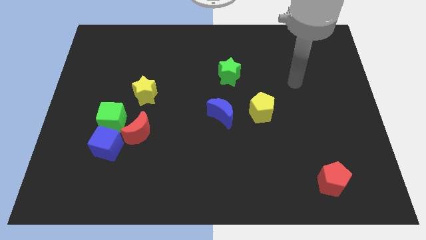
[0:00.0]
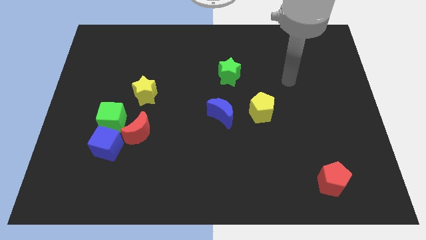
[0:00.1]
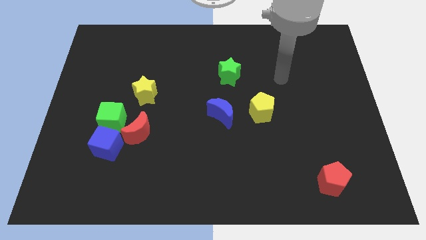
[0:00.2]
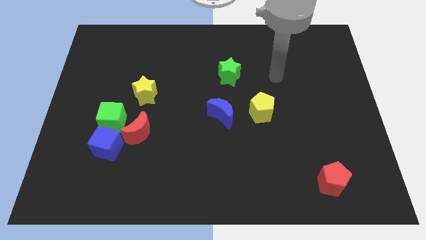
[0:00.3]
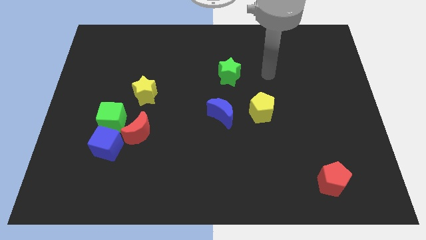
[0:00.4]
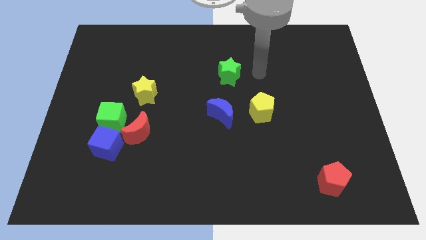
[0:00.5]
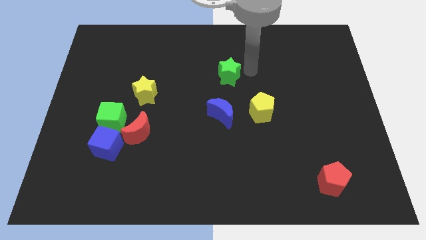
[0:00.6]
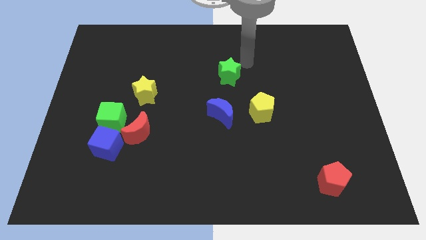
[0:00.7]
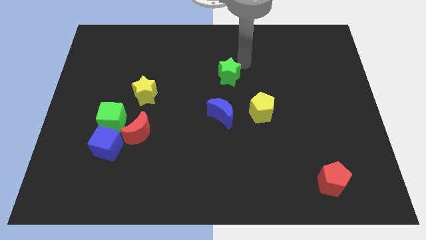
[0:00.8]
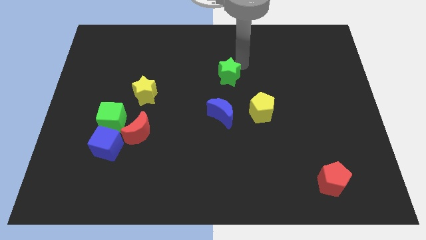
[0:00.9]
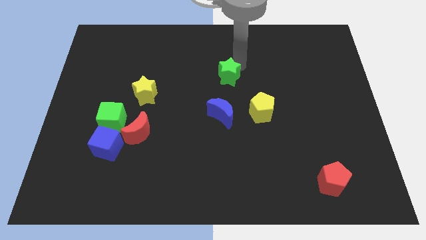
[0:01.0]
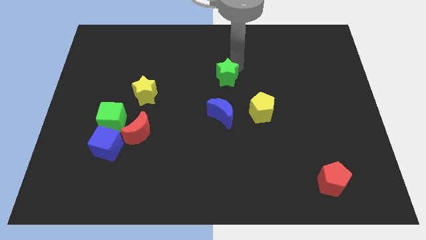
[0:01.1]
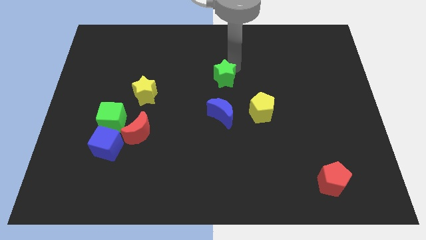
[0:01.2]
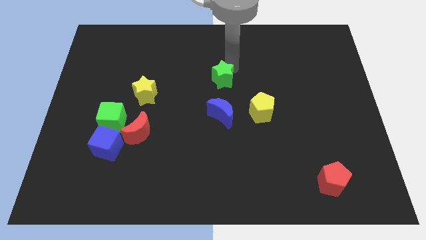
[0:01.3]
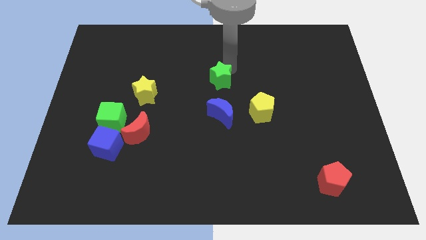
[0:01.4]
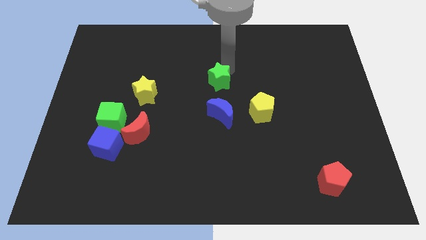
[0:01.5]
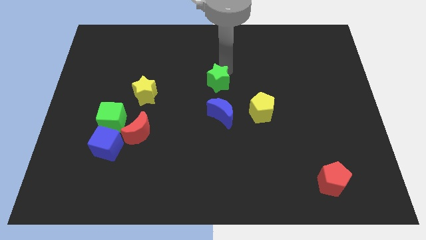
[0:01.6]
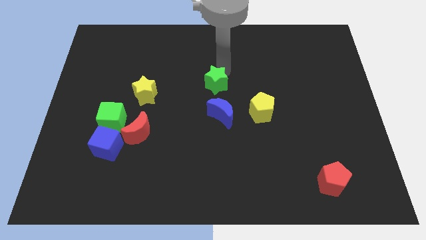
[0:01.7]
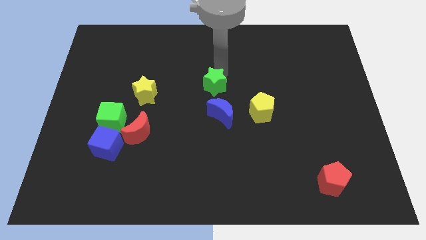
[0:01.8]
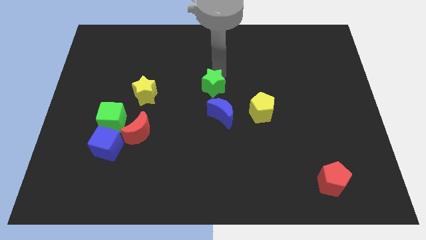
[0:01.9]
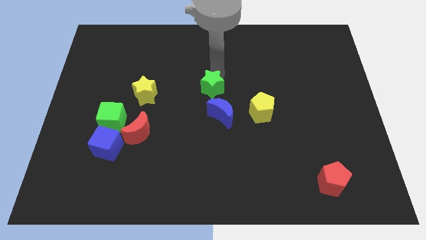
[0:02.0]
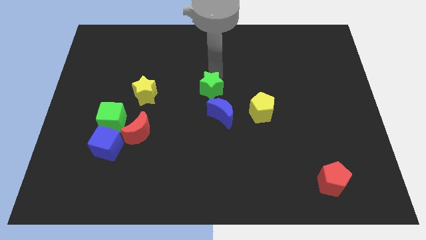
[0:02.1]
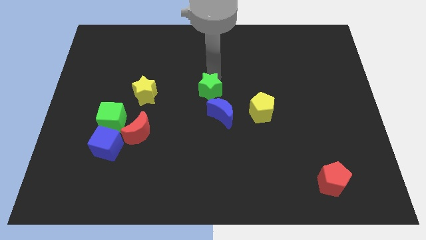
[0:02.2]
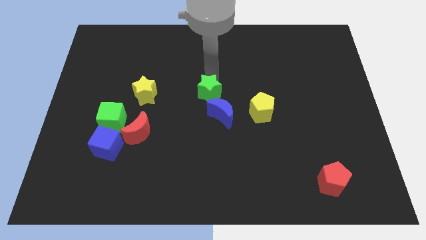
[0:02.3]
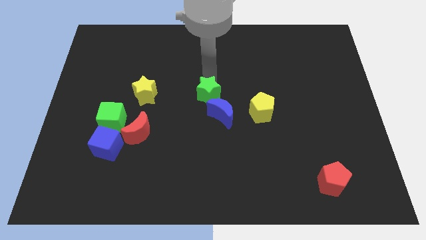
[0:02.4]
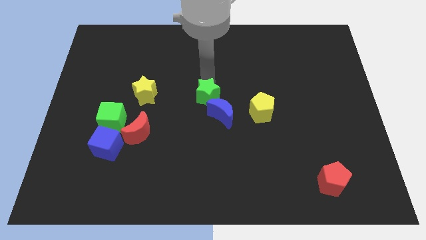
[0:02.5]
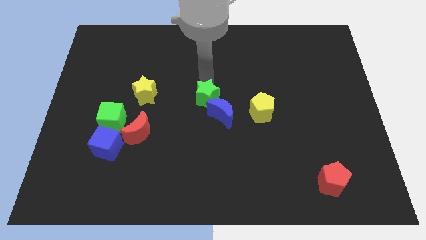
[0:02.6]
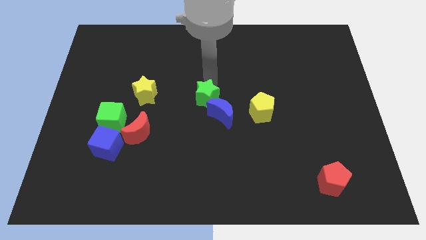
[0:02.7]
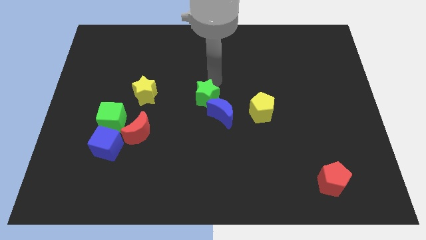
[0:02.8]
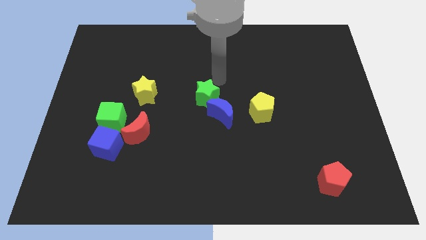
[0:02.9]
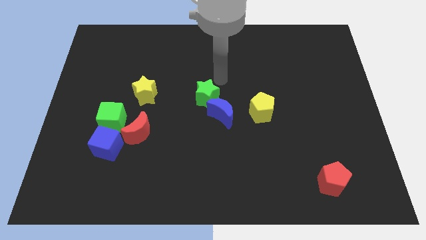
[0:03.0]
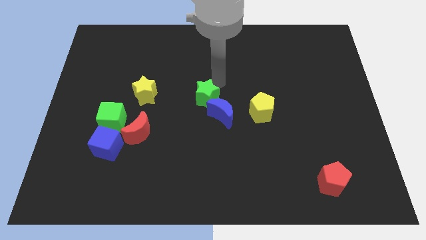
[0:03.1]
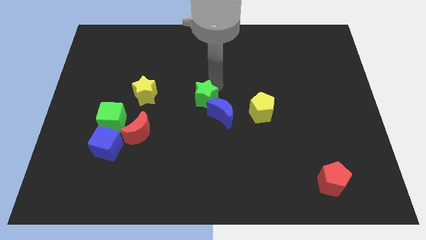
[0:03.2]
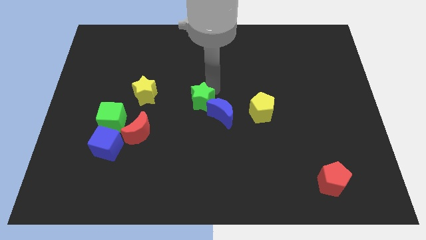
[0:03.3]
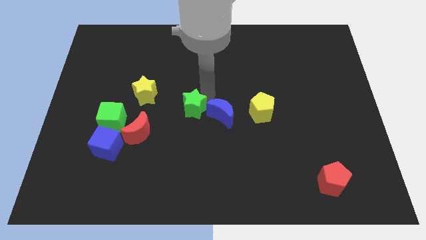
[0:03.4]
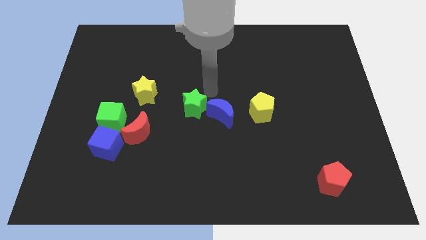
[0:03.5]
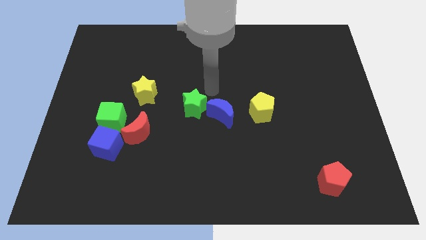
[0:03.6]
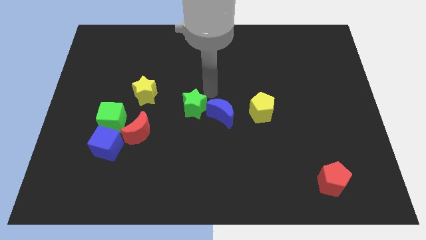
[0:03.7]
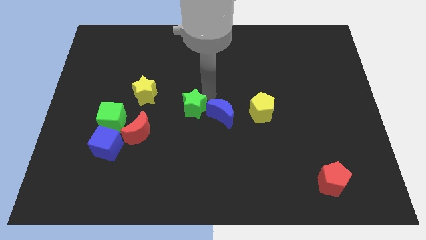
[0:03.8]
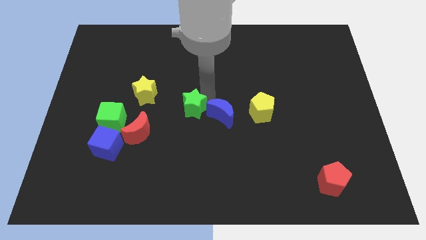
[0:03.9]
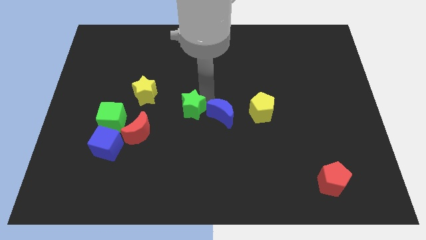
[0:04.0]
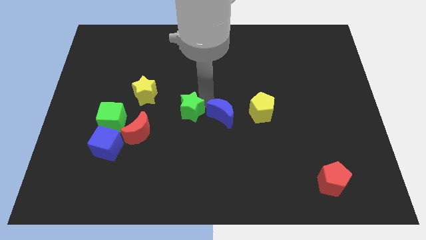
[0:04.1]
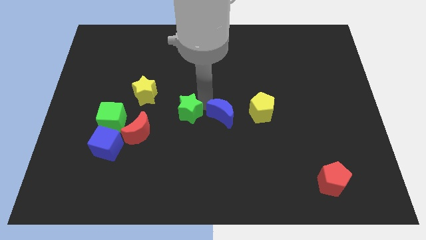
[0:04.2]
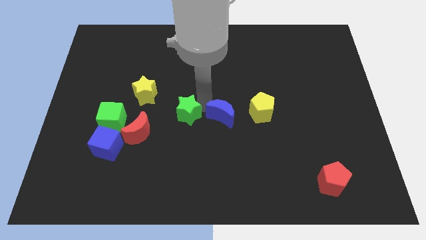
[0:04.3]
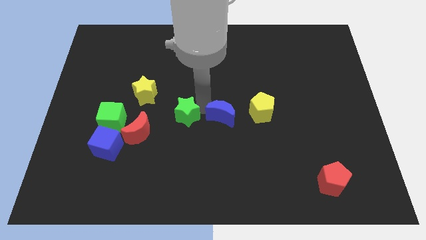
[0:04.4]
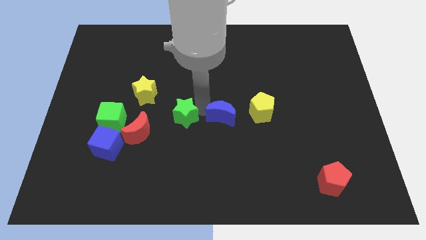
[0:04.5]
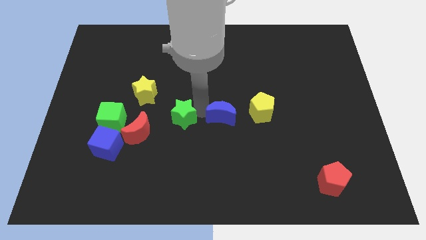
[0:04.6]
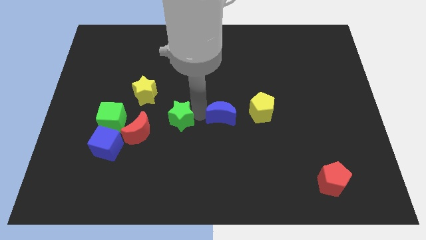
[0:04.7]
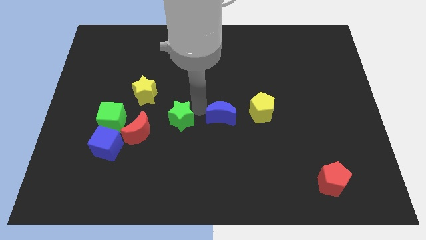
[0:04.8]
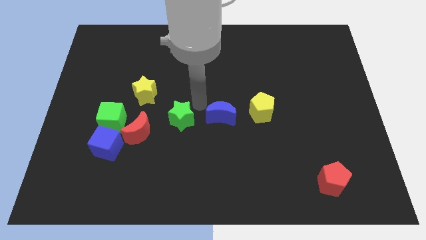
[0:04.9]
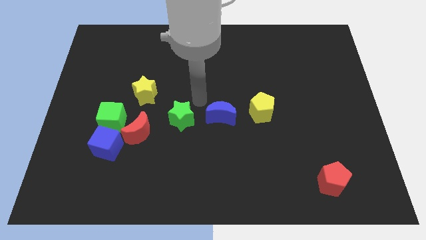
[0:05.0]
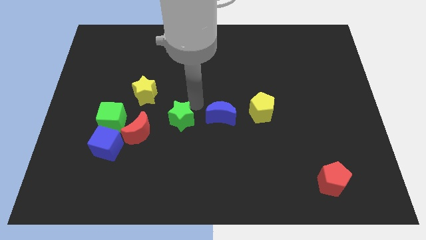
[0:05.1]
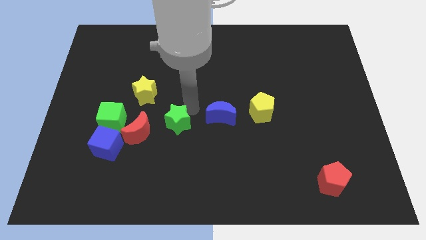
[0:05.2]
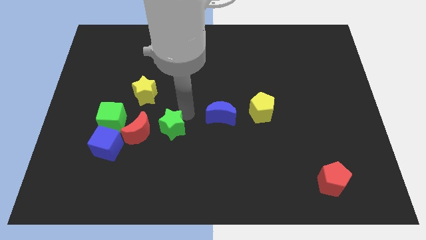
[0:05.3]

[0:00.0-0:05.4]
slide the green star down and to the left

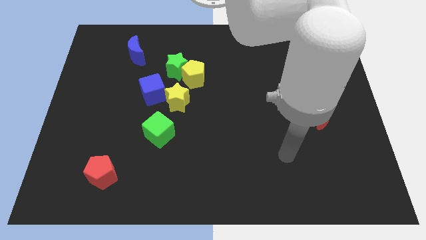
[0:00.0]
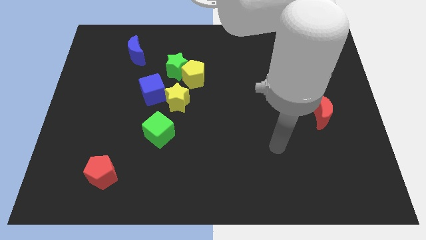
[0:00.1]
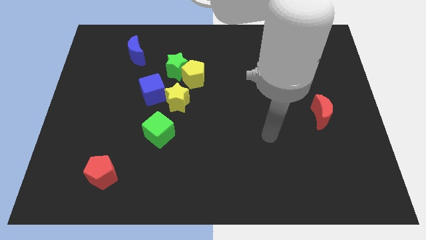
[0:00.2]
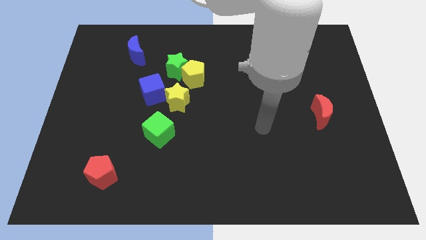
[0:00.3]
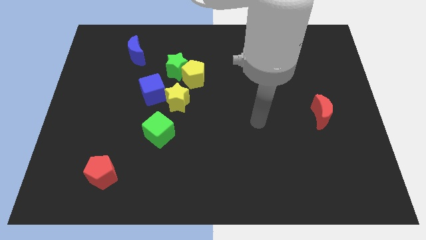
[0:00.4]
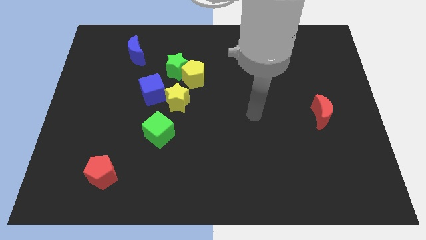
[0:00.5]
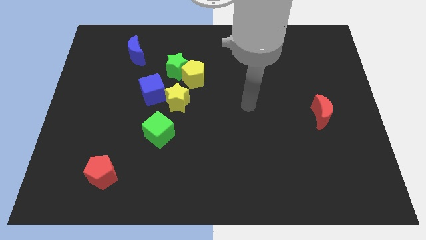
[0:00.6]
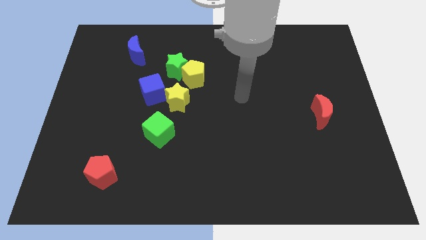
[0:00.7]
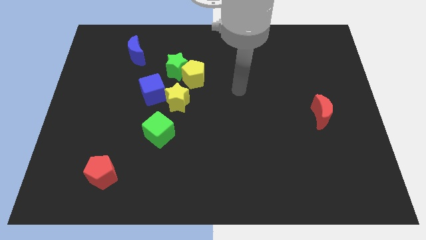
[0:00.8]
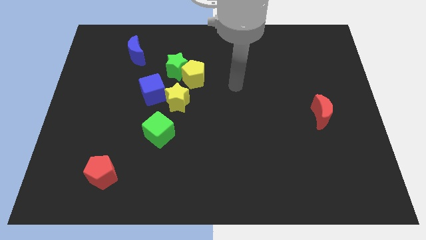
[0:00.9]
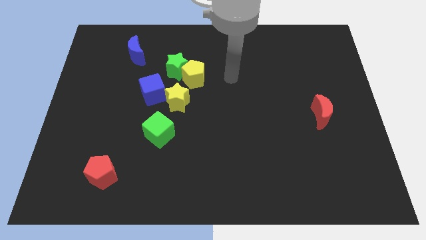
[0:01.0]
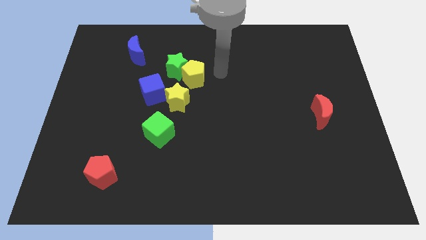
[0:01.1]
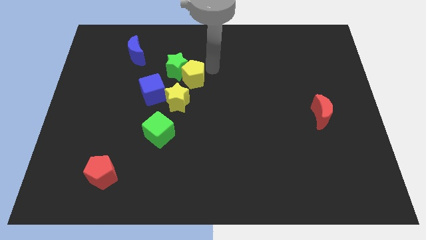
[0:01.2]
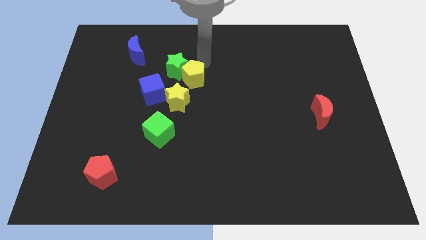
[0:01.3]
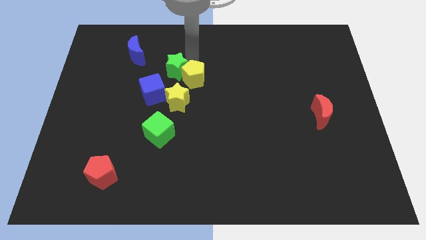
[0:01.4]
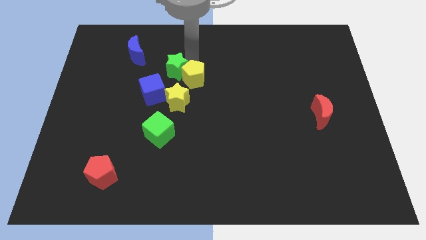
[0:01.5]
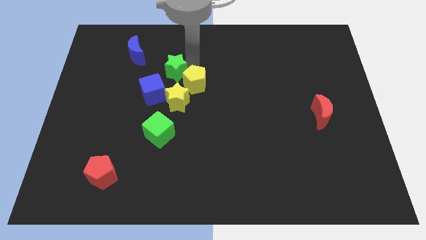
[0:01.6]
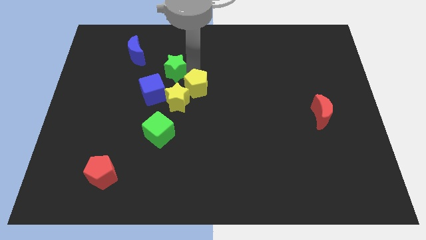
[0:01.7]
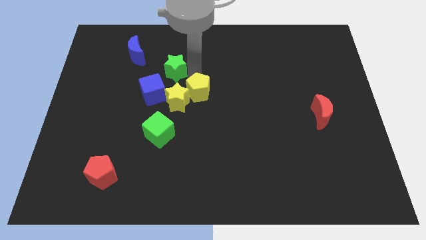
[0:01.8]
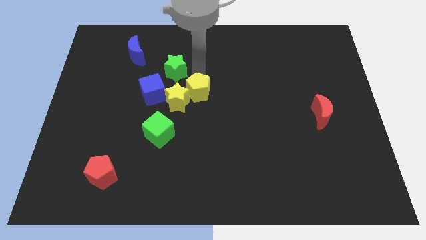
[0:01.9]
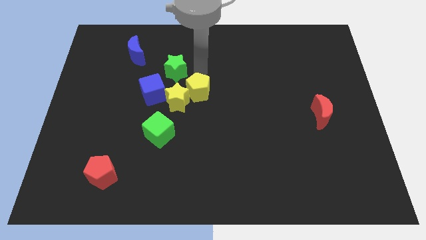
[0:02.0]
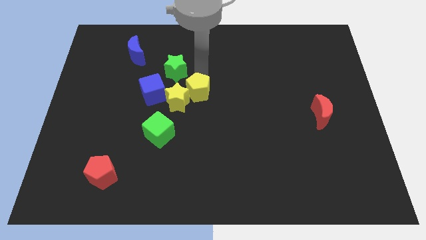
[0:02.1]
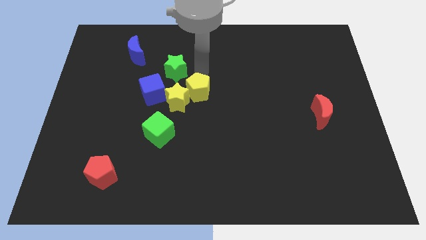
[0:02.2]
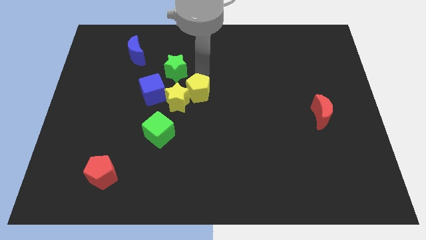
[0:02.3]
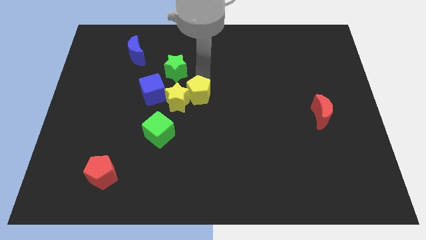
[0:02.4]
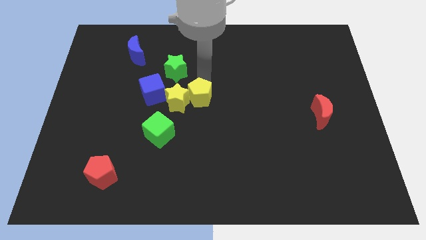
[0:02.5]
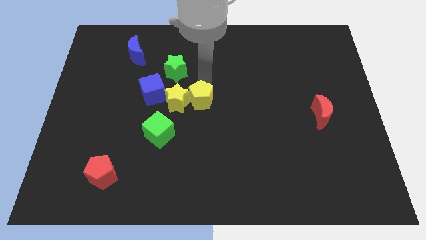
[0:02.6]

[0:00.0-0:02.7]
slightly slide the yellow pentagon downwards
